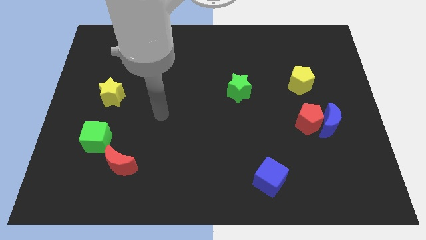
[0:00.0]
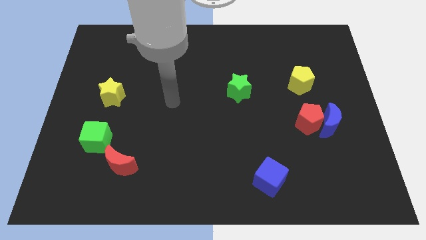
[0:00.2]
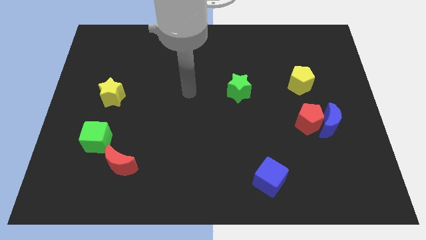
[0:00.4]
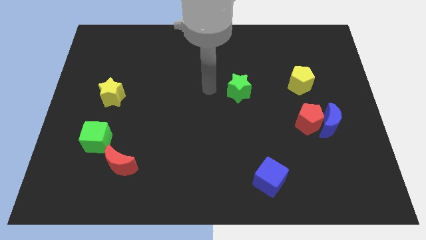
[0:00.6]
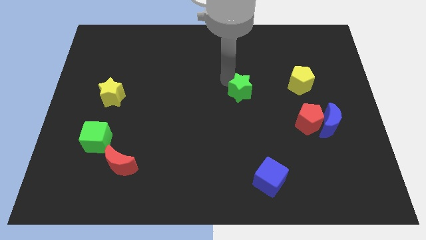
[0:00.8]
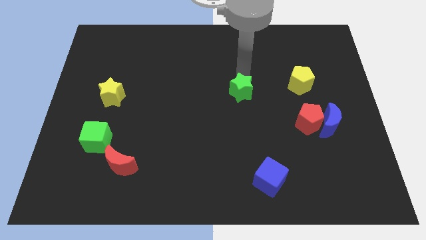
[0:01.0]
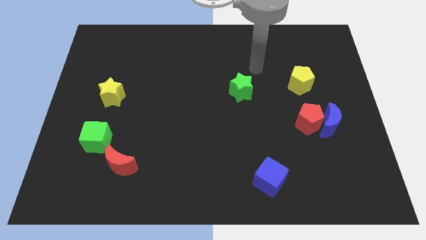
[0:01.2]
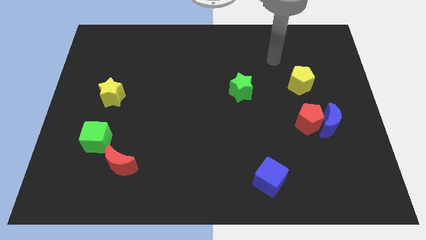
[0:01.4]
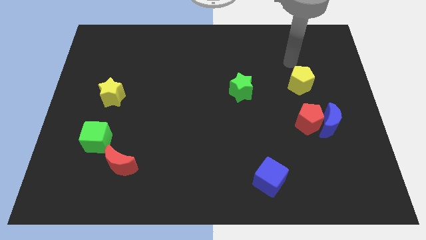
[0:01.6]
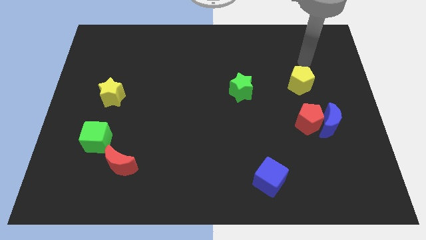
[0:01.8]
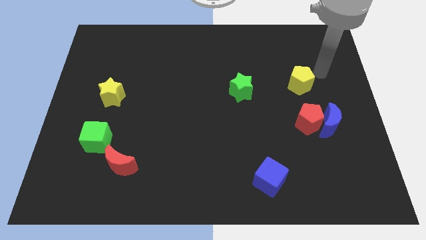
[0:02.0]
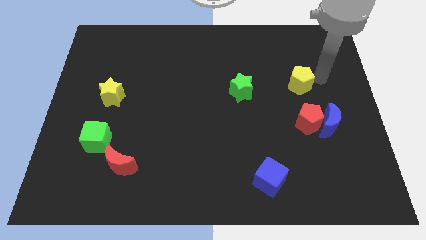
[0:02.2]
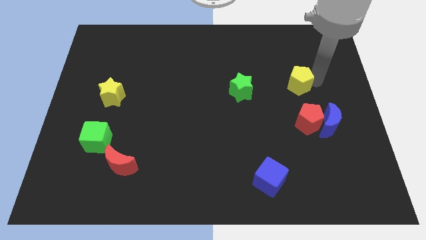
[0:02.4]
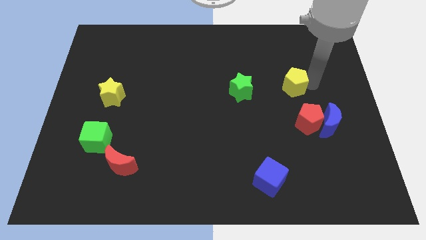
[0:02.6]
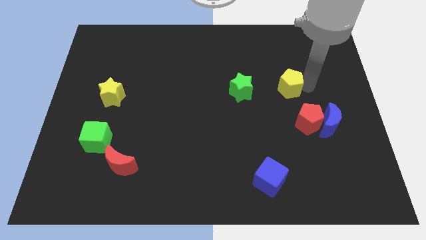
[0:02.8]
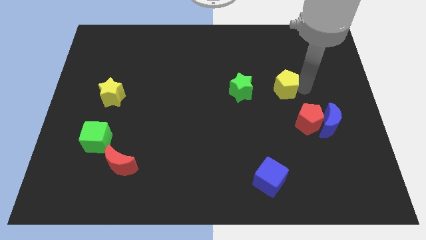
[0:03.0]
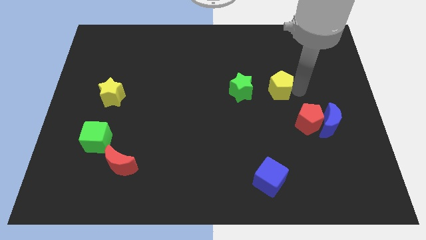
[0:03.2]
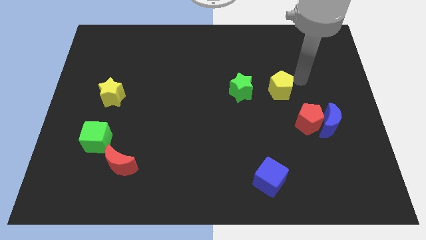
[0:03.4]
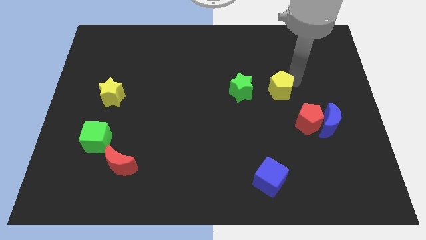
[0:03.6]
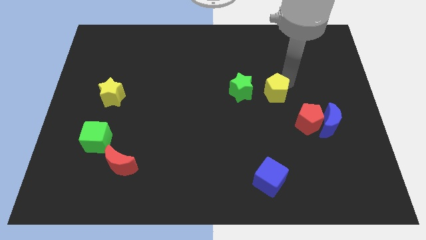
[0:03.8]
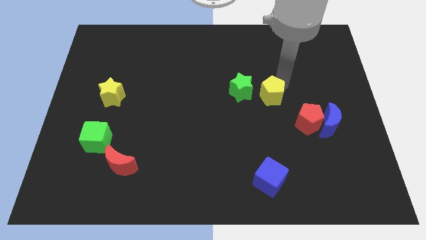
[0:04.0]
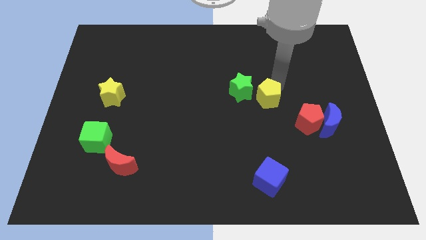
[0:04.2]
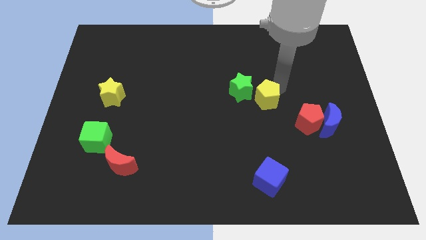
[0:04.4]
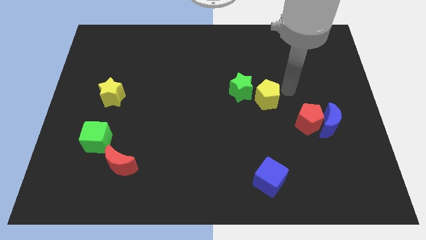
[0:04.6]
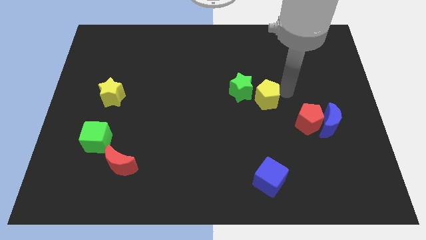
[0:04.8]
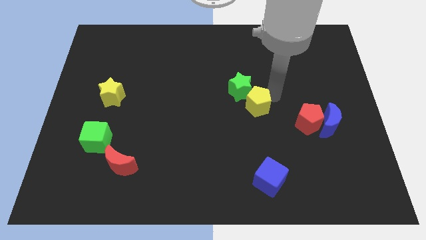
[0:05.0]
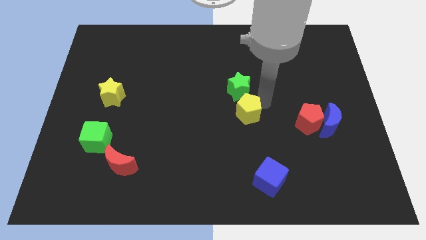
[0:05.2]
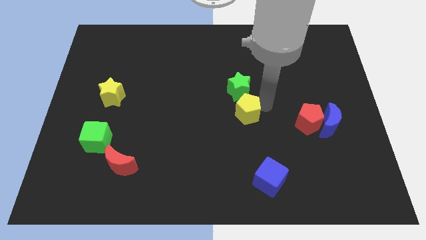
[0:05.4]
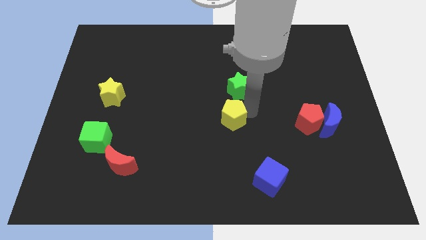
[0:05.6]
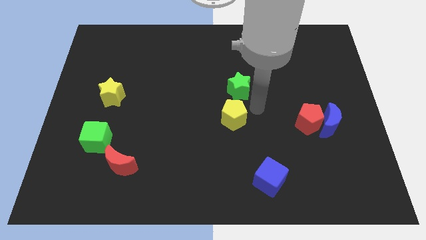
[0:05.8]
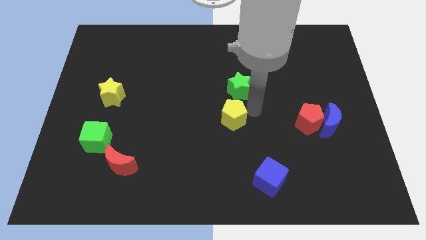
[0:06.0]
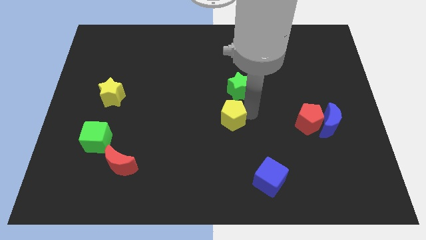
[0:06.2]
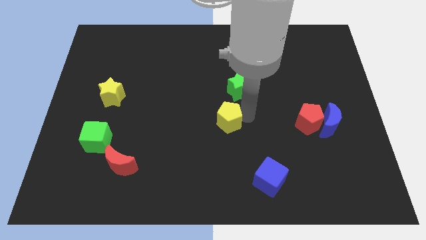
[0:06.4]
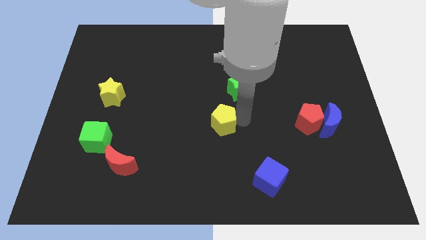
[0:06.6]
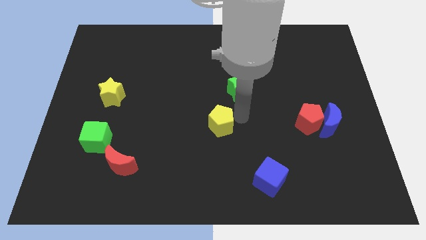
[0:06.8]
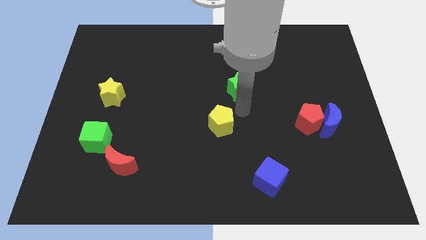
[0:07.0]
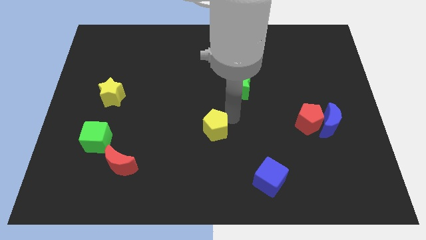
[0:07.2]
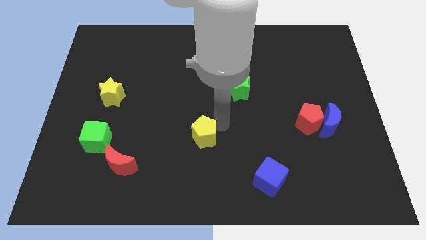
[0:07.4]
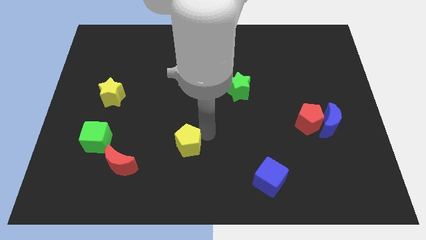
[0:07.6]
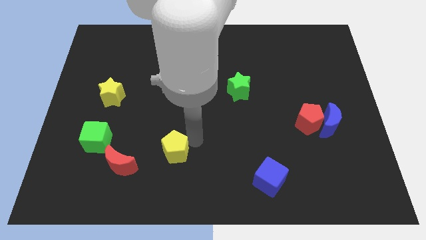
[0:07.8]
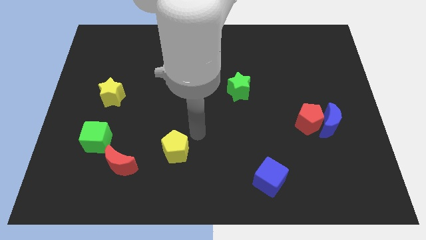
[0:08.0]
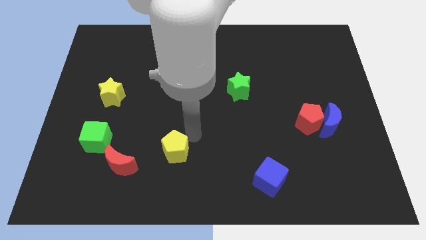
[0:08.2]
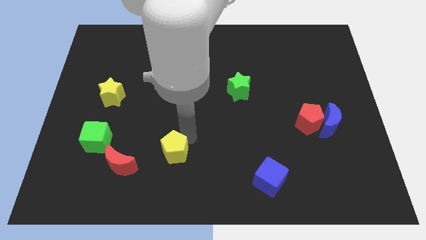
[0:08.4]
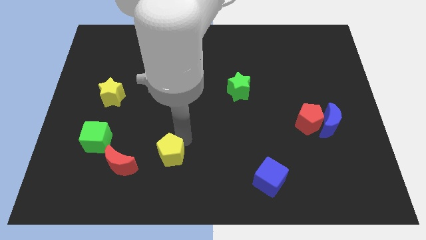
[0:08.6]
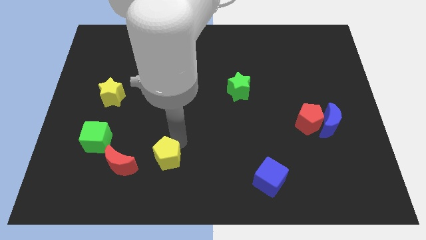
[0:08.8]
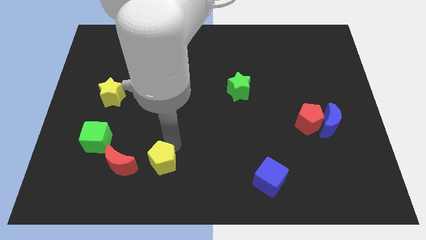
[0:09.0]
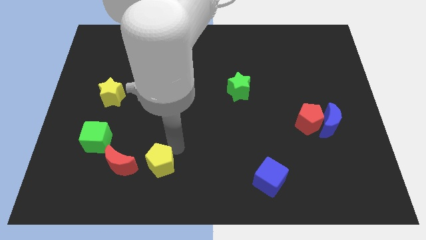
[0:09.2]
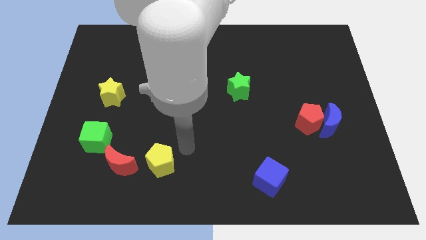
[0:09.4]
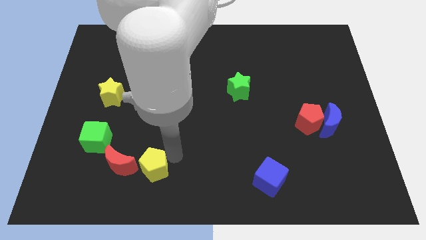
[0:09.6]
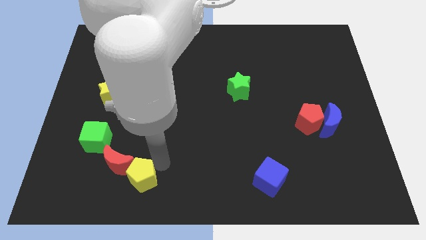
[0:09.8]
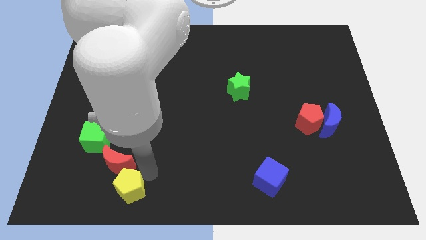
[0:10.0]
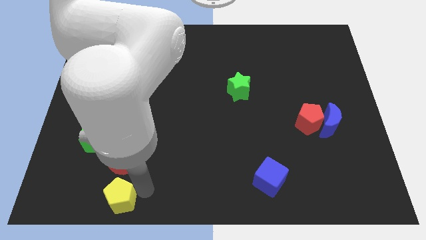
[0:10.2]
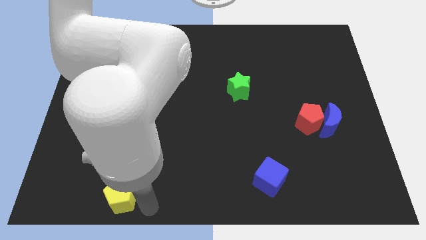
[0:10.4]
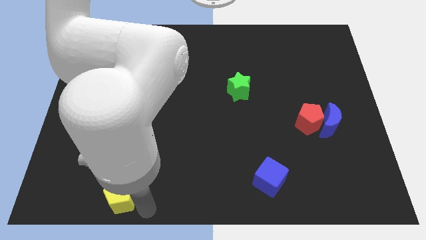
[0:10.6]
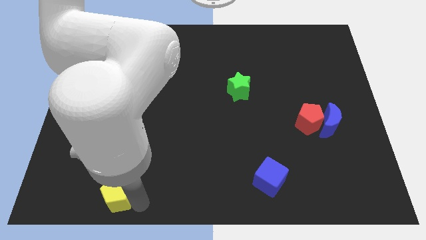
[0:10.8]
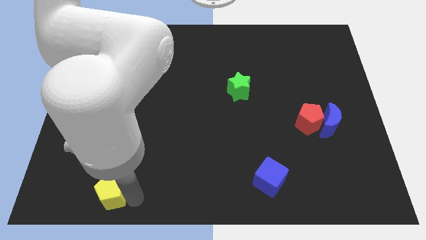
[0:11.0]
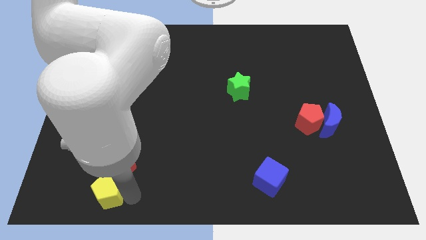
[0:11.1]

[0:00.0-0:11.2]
move the yellow pentagon below the green cube

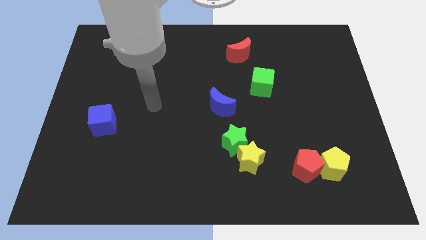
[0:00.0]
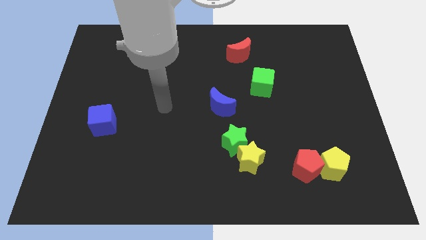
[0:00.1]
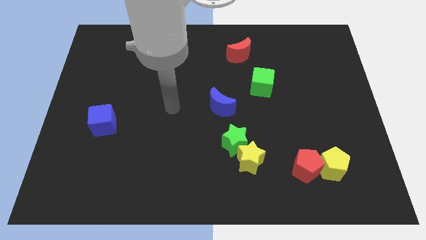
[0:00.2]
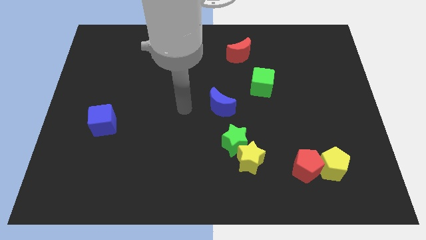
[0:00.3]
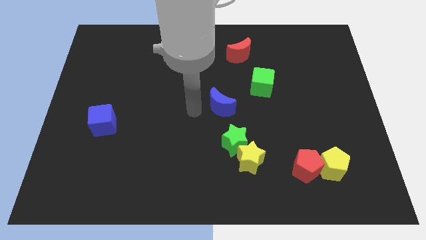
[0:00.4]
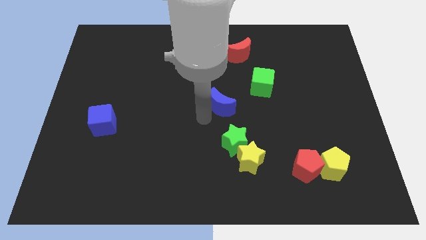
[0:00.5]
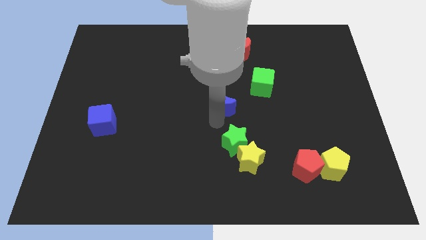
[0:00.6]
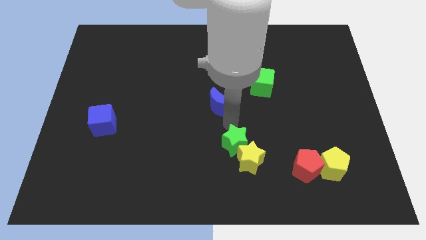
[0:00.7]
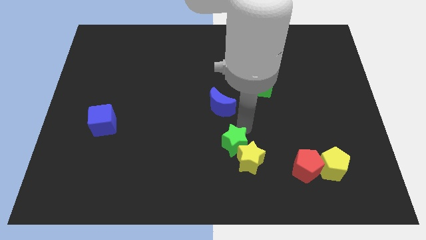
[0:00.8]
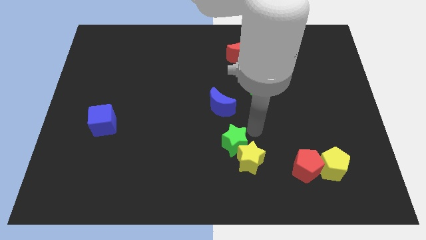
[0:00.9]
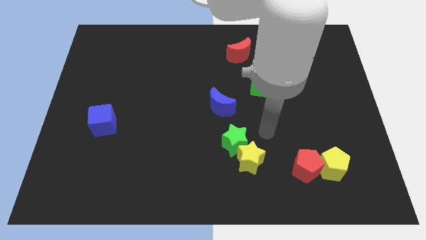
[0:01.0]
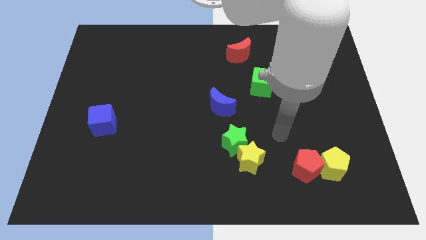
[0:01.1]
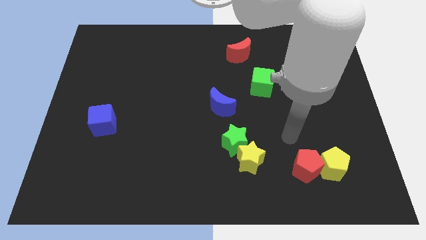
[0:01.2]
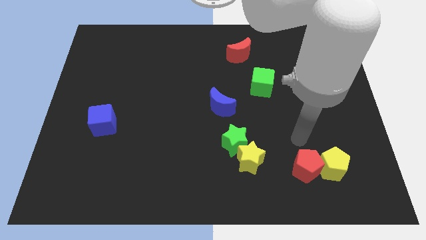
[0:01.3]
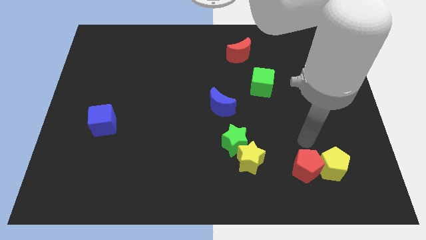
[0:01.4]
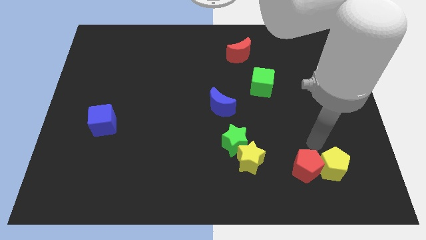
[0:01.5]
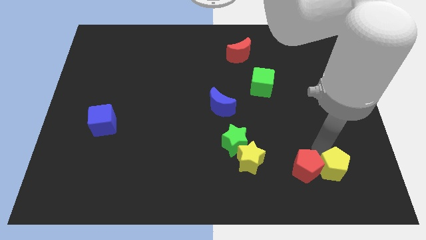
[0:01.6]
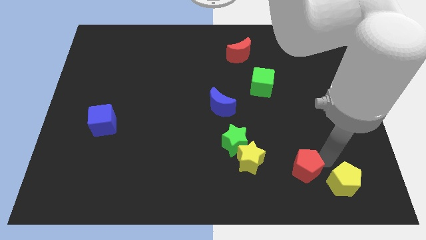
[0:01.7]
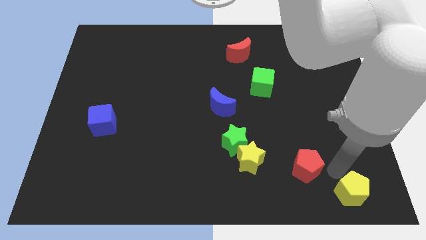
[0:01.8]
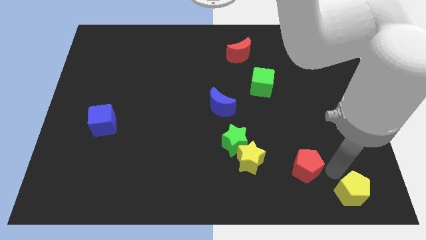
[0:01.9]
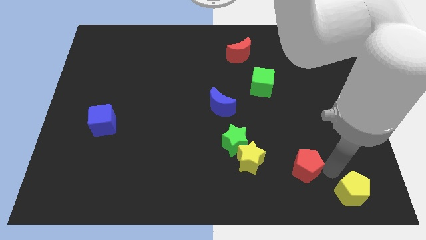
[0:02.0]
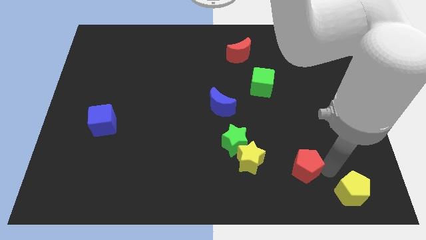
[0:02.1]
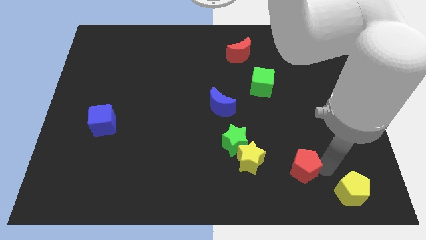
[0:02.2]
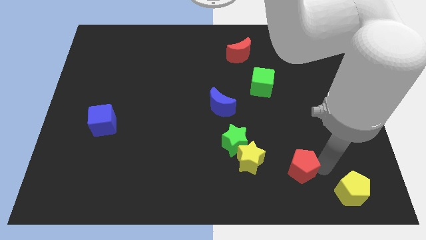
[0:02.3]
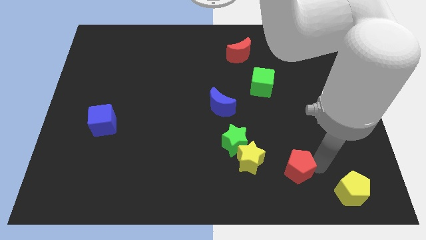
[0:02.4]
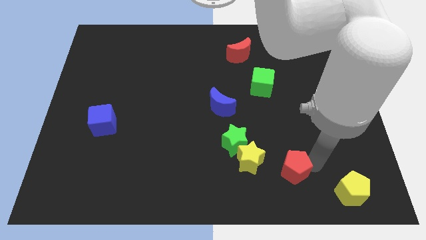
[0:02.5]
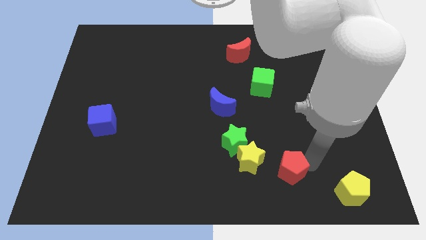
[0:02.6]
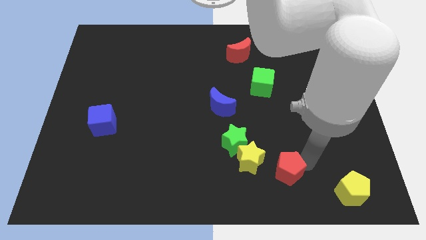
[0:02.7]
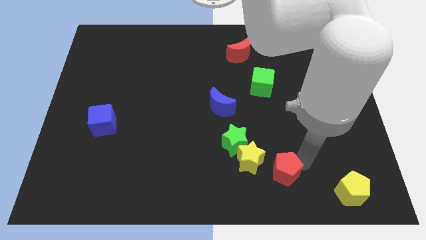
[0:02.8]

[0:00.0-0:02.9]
push the red pentagon diagonally down and to the right of the green star
